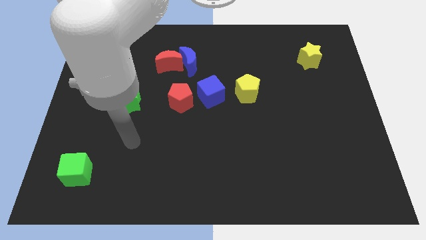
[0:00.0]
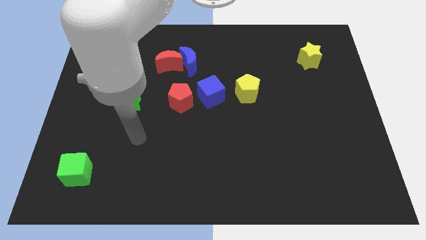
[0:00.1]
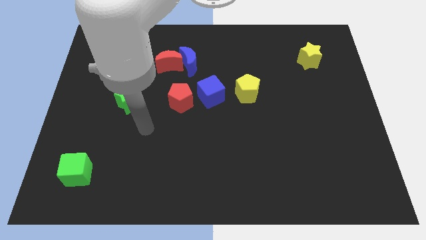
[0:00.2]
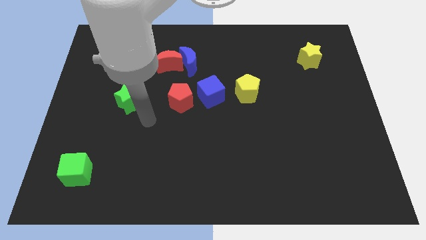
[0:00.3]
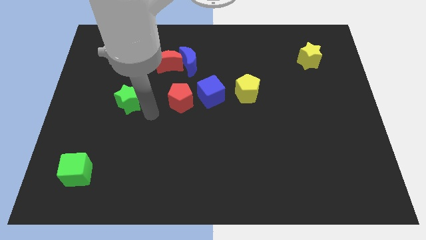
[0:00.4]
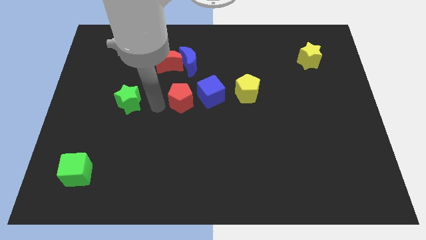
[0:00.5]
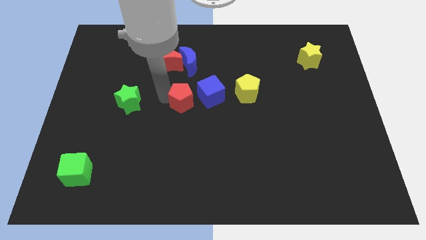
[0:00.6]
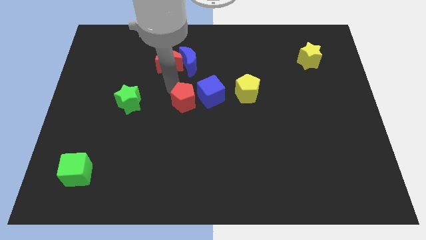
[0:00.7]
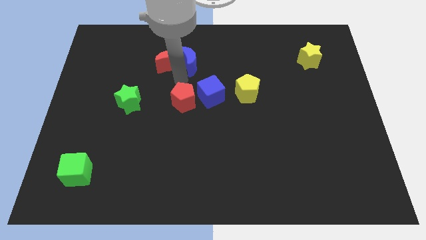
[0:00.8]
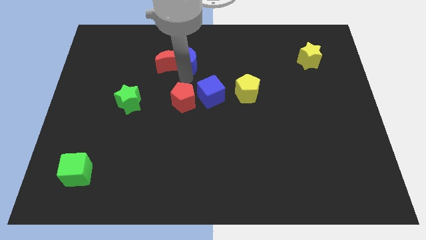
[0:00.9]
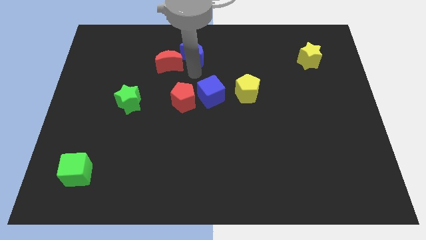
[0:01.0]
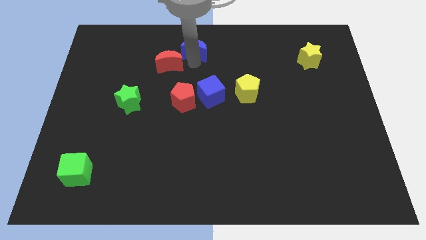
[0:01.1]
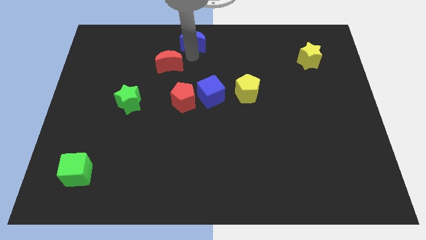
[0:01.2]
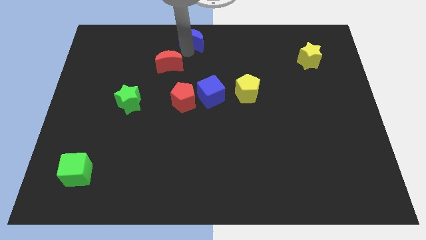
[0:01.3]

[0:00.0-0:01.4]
separate the red moon from the blue moon

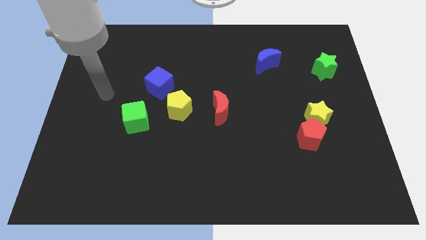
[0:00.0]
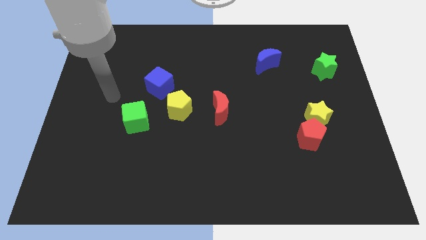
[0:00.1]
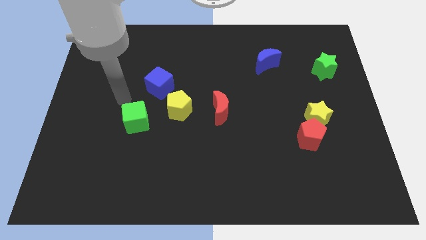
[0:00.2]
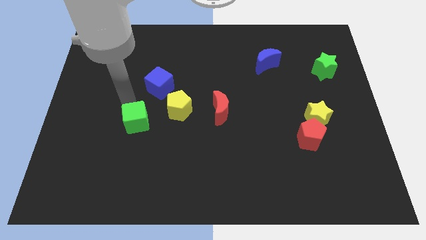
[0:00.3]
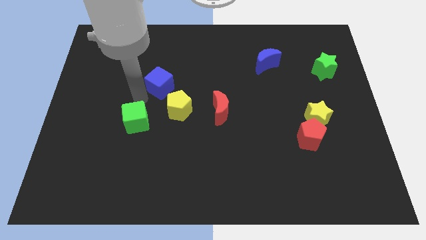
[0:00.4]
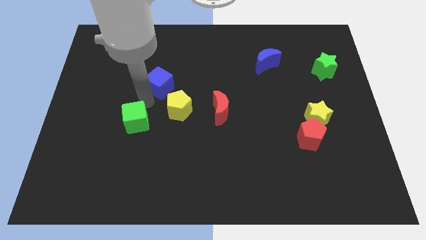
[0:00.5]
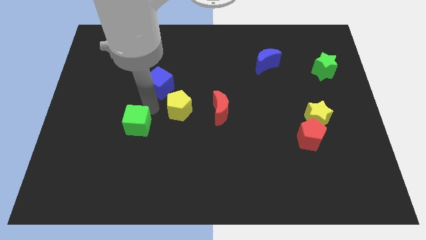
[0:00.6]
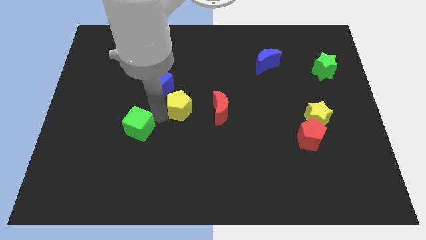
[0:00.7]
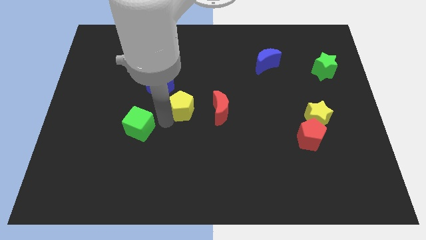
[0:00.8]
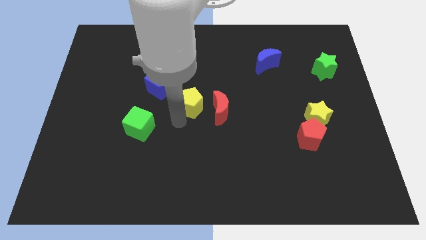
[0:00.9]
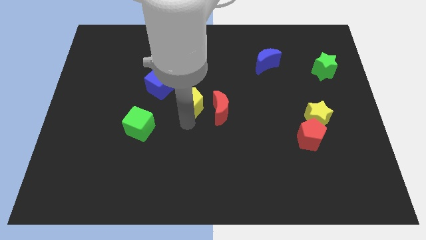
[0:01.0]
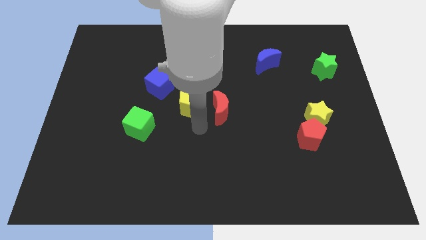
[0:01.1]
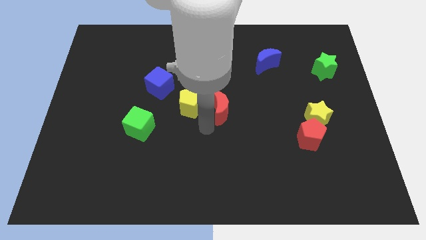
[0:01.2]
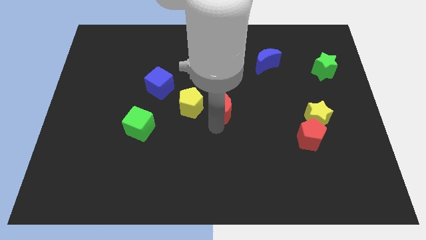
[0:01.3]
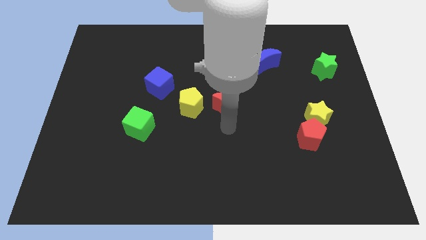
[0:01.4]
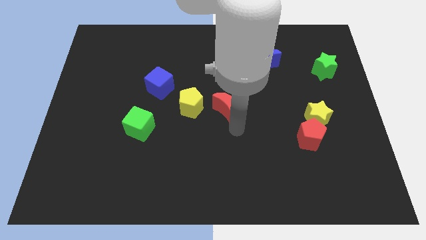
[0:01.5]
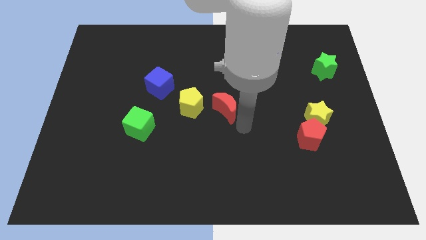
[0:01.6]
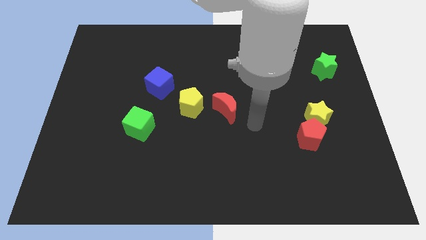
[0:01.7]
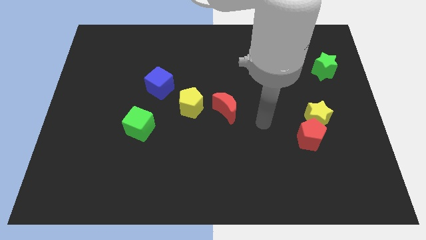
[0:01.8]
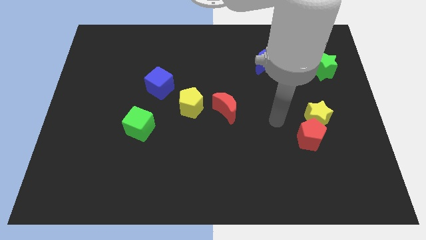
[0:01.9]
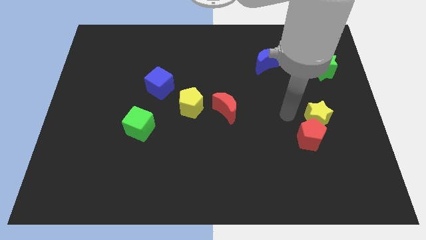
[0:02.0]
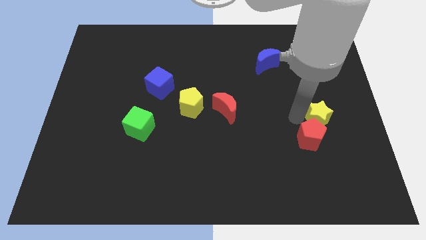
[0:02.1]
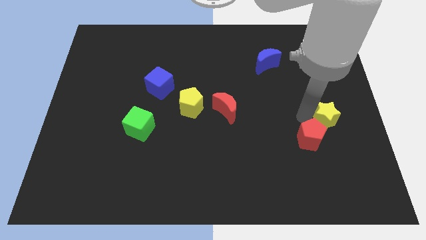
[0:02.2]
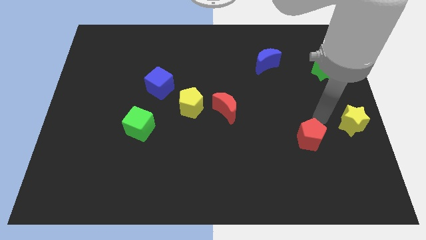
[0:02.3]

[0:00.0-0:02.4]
pull the red pentagon apart from the yellow star

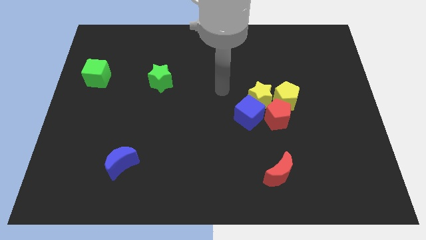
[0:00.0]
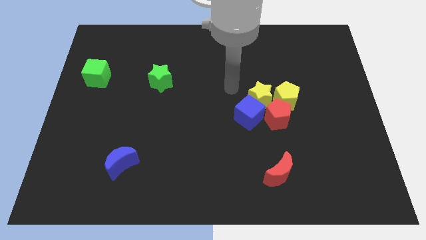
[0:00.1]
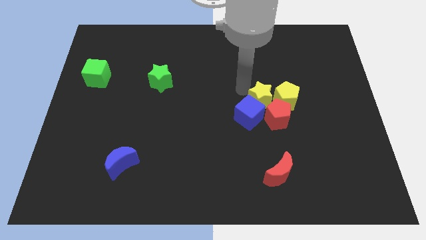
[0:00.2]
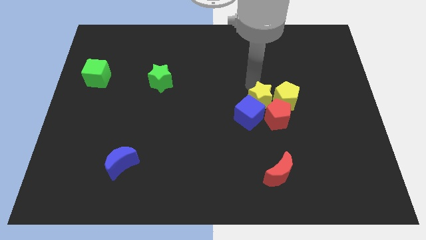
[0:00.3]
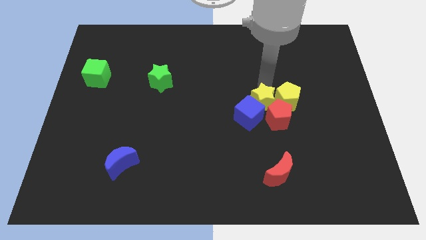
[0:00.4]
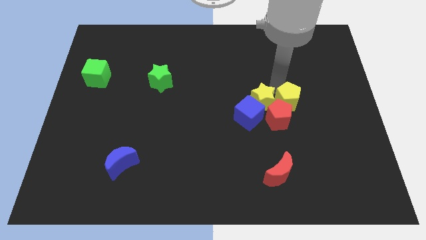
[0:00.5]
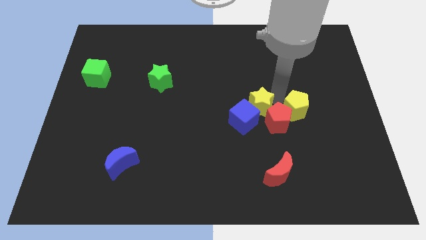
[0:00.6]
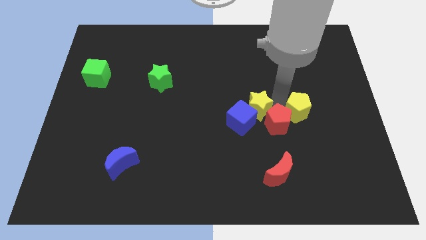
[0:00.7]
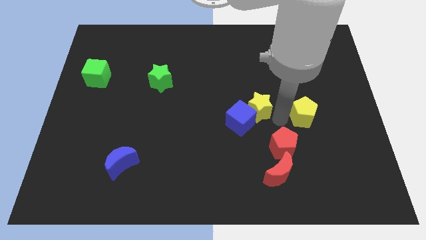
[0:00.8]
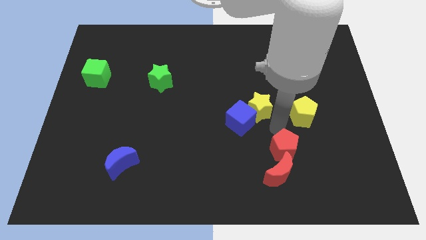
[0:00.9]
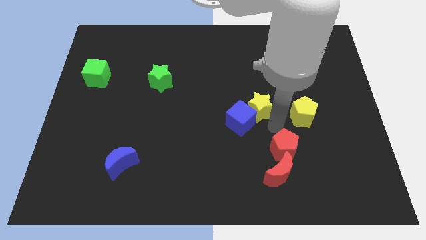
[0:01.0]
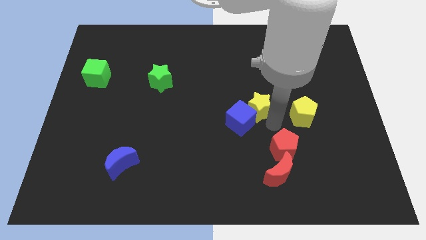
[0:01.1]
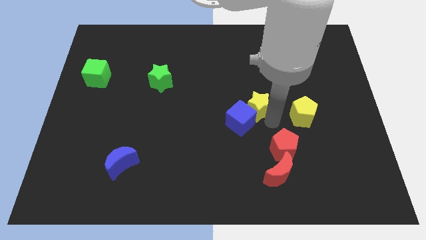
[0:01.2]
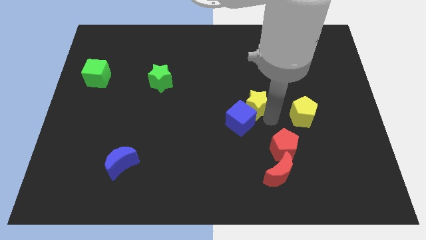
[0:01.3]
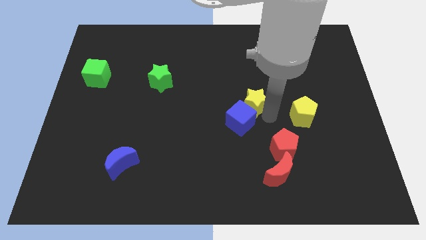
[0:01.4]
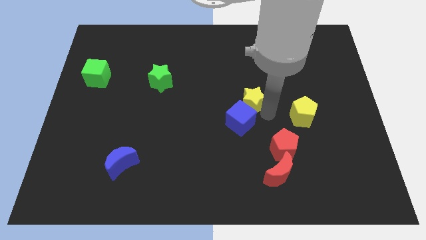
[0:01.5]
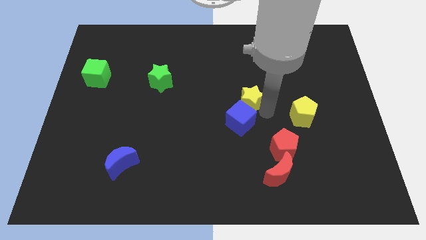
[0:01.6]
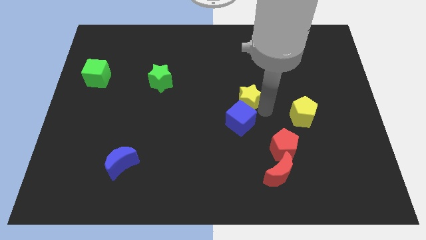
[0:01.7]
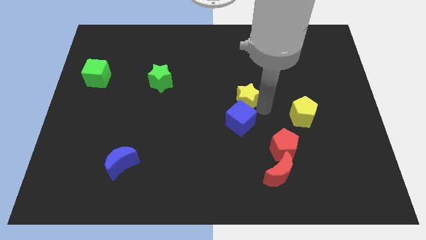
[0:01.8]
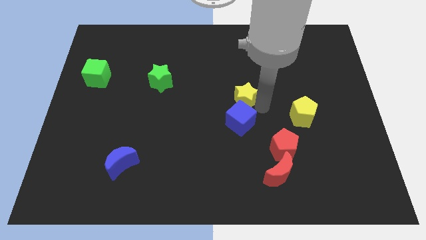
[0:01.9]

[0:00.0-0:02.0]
separate the yellow star from the blue cube, yellow pentagon, and red pentagon

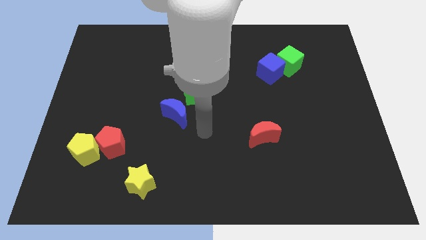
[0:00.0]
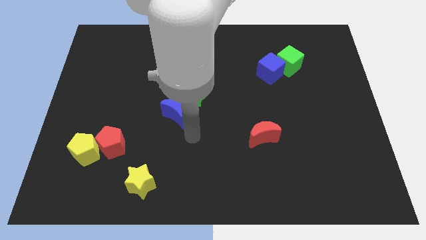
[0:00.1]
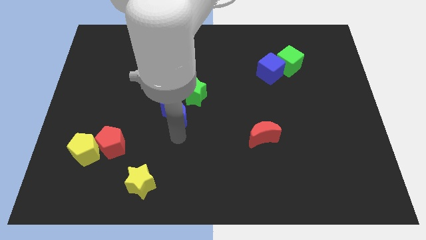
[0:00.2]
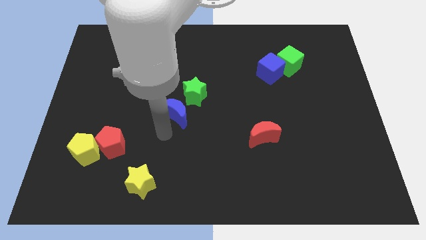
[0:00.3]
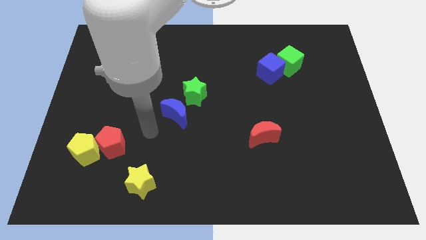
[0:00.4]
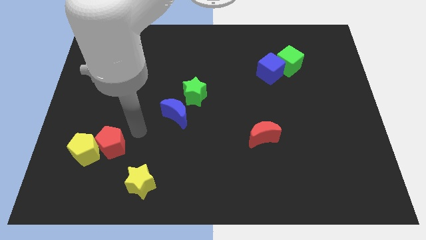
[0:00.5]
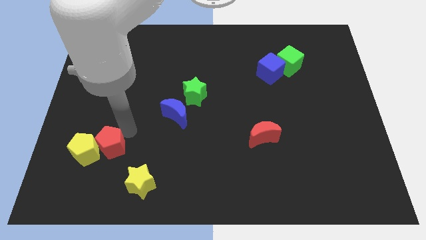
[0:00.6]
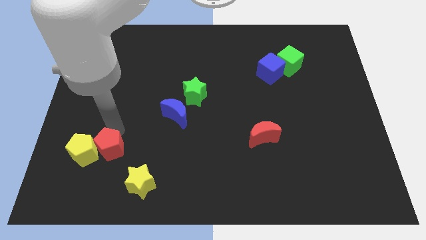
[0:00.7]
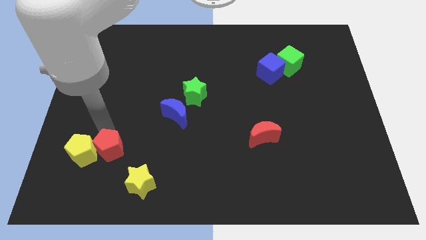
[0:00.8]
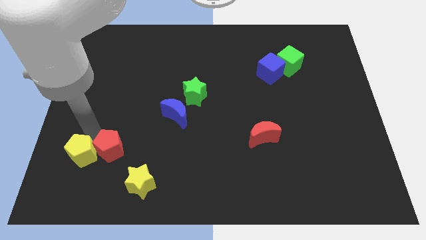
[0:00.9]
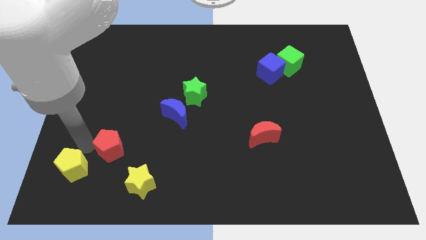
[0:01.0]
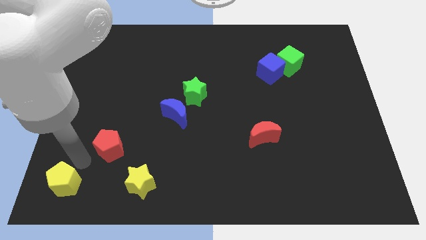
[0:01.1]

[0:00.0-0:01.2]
pull the red pentagon apart from the yellow pentagon

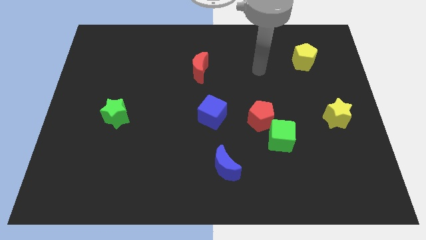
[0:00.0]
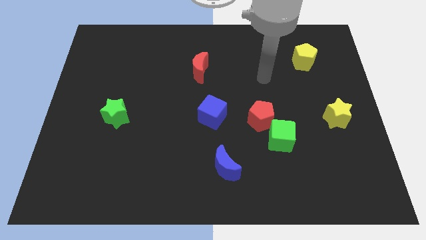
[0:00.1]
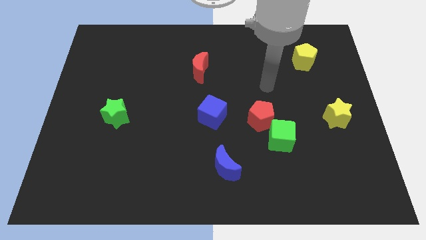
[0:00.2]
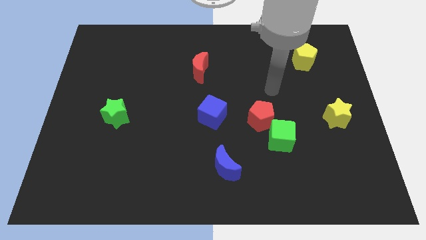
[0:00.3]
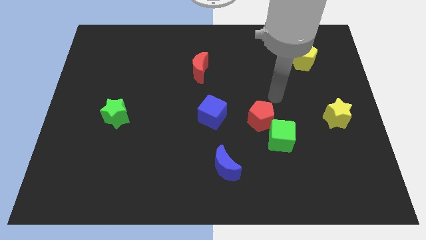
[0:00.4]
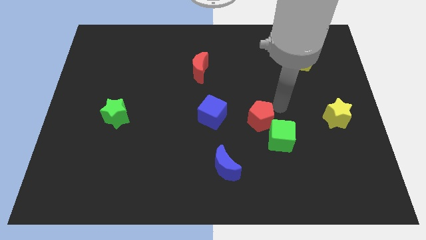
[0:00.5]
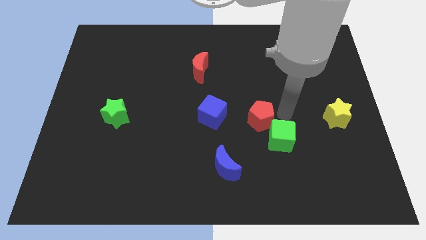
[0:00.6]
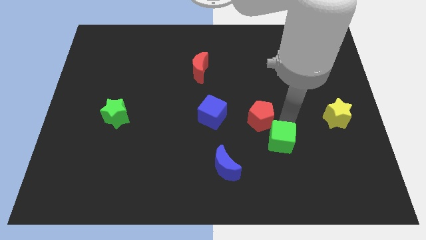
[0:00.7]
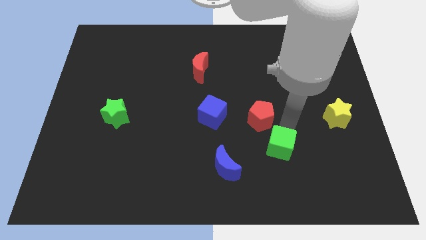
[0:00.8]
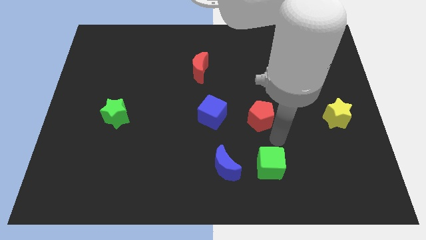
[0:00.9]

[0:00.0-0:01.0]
separate the red pentagon from the green cube

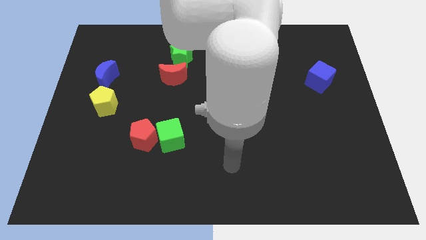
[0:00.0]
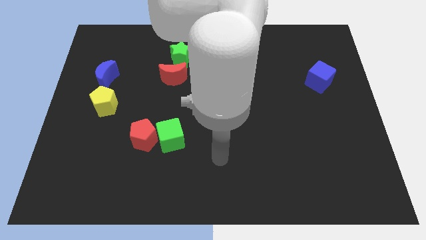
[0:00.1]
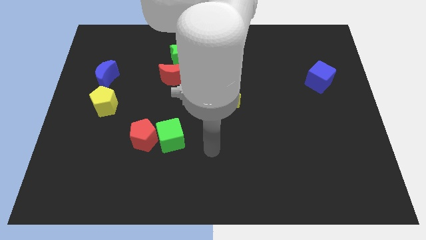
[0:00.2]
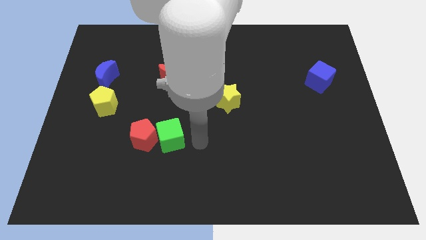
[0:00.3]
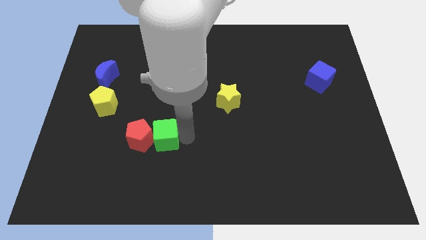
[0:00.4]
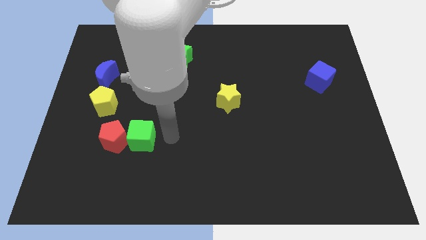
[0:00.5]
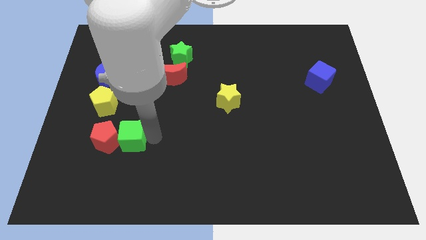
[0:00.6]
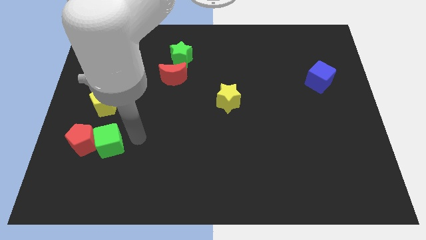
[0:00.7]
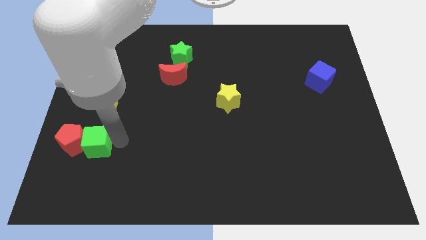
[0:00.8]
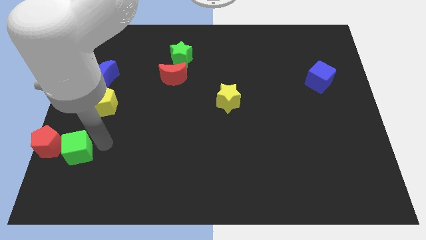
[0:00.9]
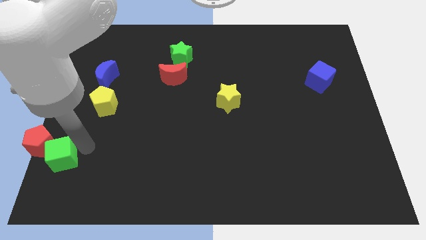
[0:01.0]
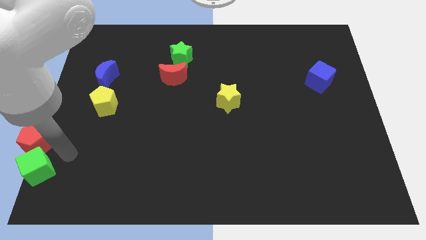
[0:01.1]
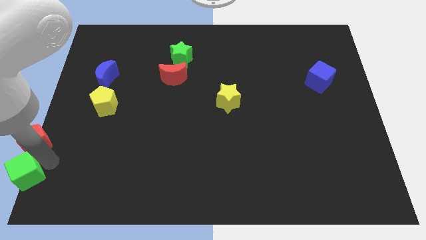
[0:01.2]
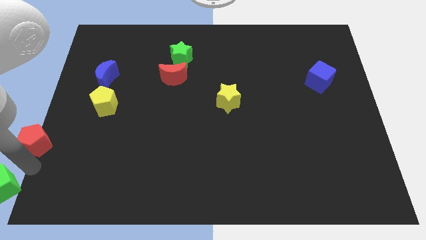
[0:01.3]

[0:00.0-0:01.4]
move the red pentagon away from the green cube
